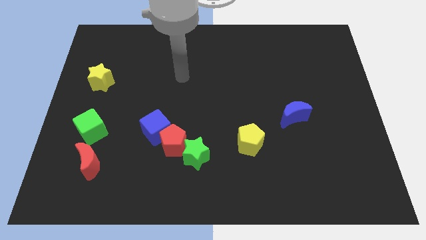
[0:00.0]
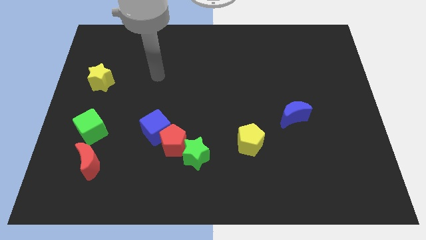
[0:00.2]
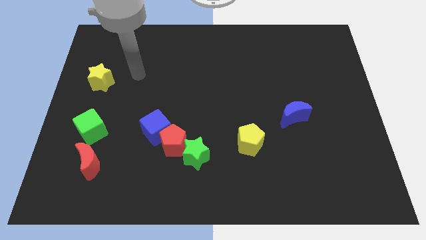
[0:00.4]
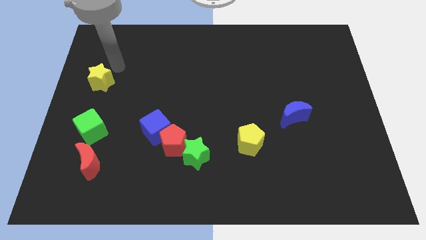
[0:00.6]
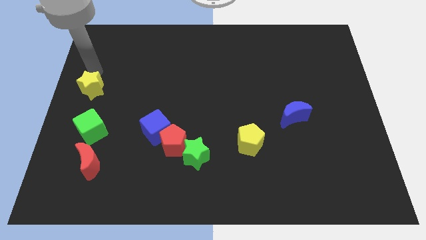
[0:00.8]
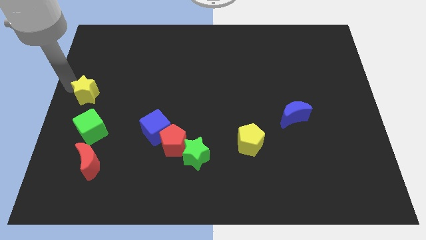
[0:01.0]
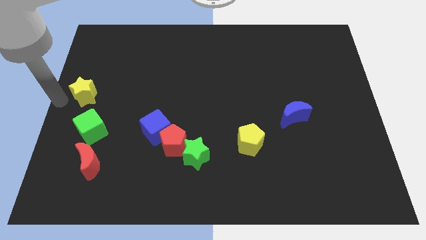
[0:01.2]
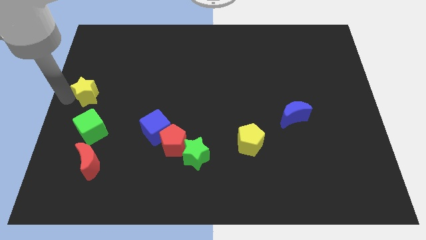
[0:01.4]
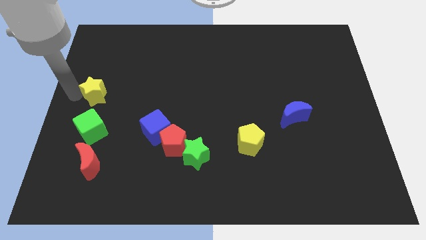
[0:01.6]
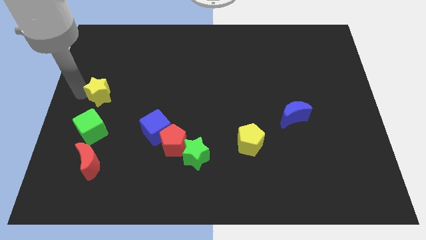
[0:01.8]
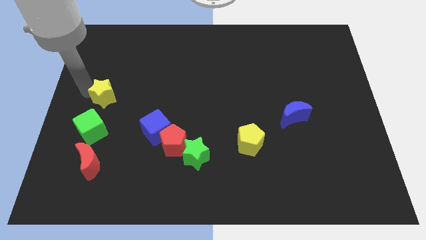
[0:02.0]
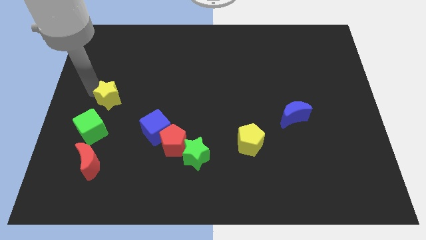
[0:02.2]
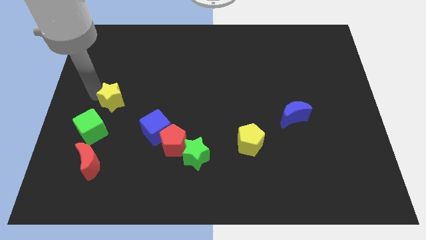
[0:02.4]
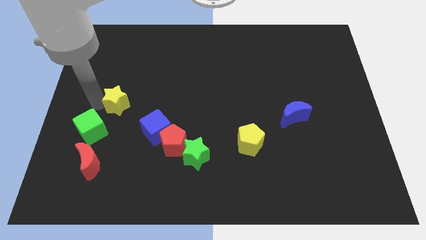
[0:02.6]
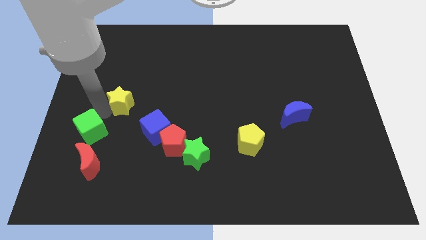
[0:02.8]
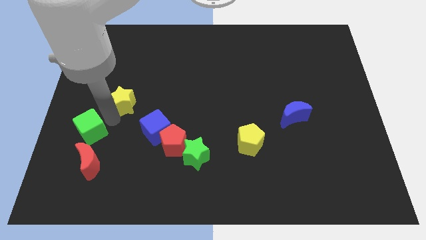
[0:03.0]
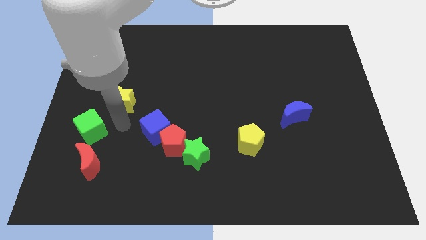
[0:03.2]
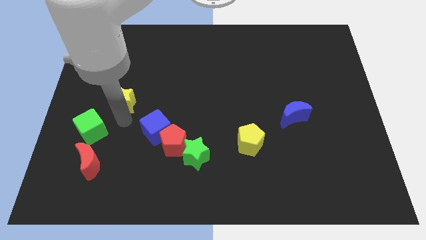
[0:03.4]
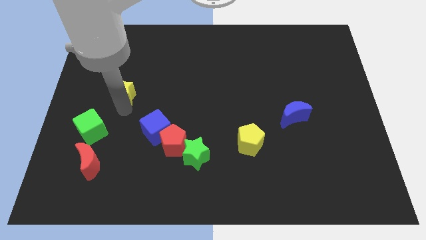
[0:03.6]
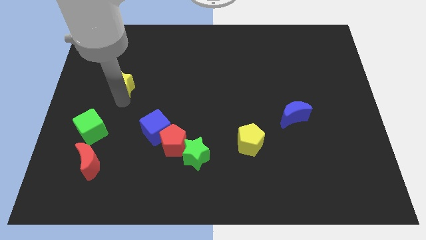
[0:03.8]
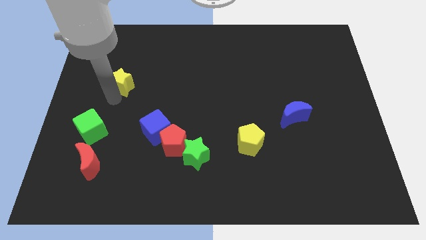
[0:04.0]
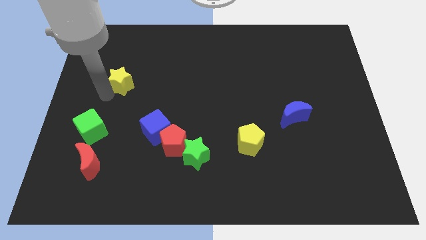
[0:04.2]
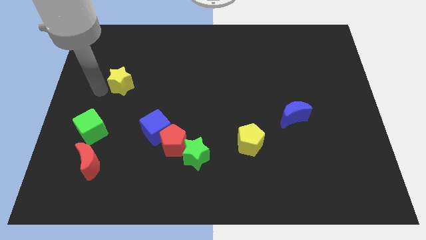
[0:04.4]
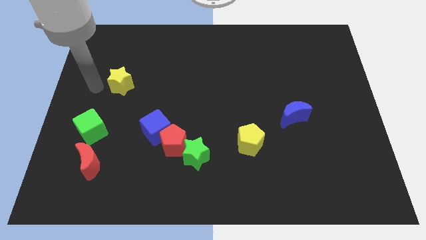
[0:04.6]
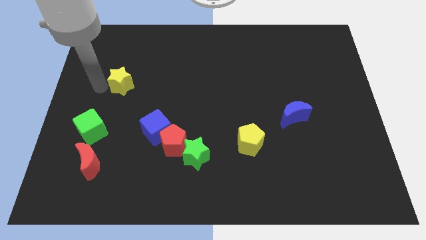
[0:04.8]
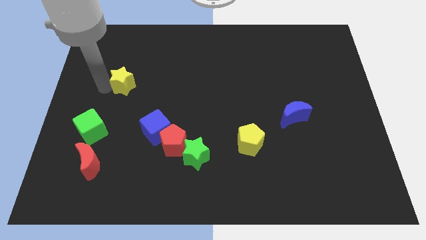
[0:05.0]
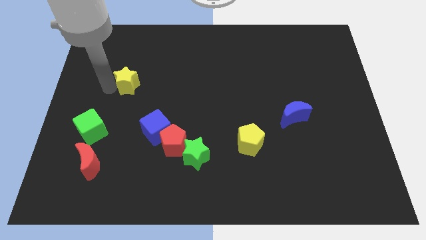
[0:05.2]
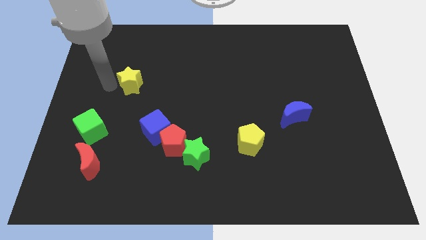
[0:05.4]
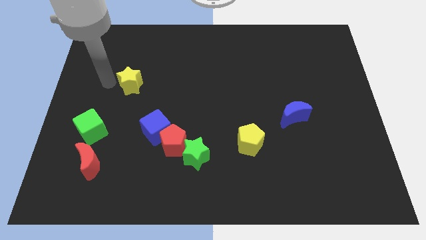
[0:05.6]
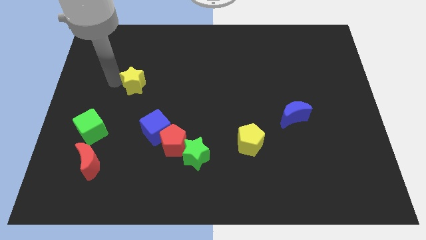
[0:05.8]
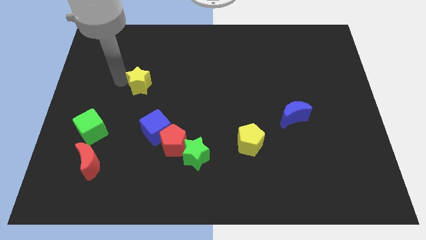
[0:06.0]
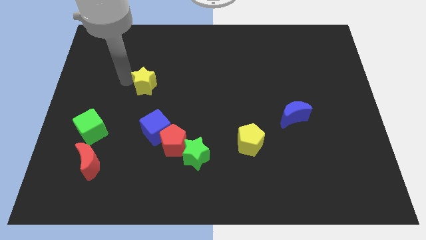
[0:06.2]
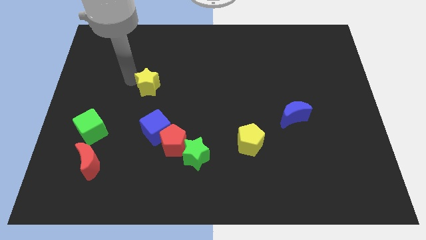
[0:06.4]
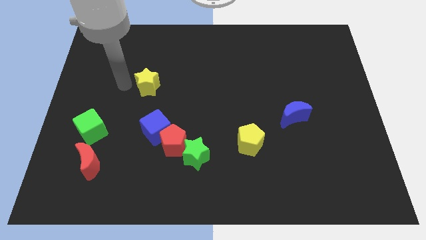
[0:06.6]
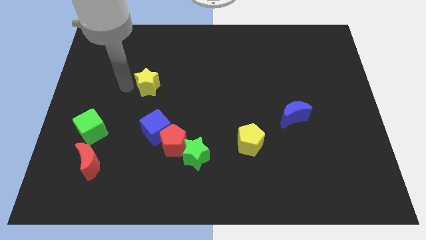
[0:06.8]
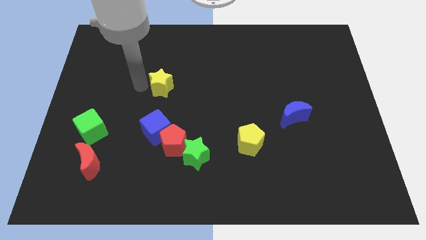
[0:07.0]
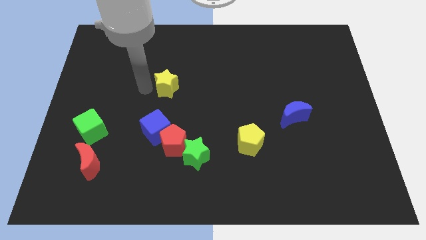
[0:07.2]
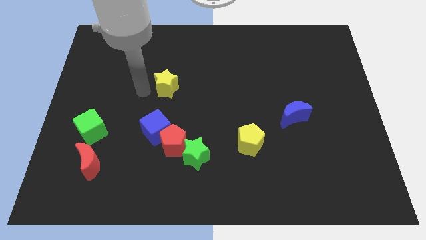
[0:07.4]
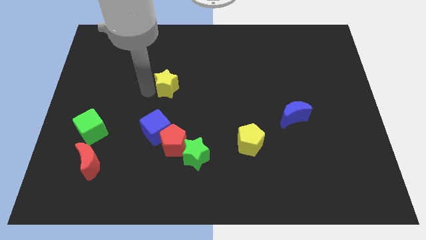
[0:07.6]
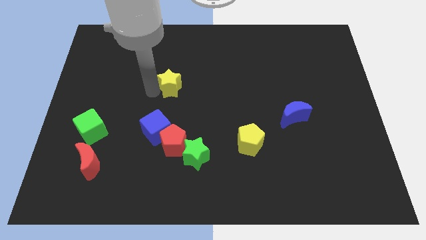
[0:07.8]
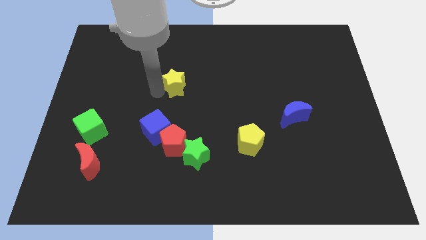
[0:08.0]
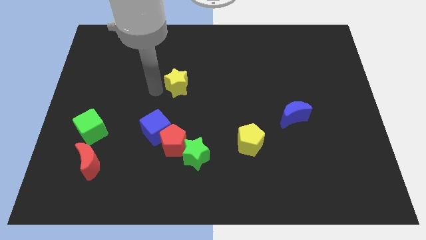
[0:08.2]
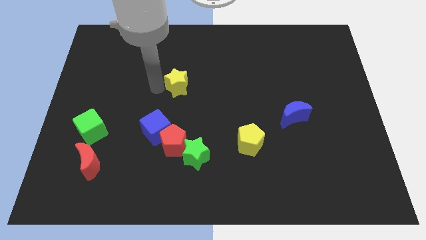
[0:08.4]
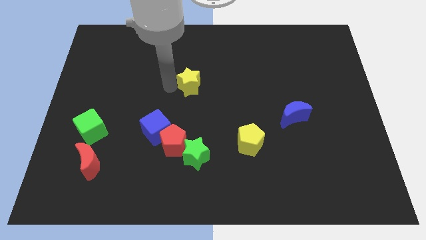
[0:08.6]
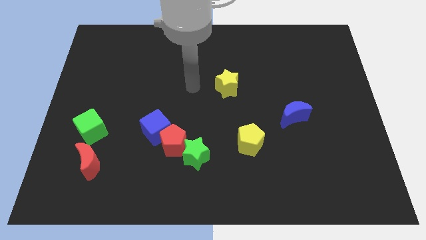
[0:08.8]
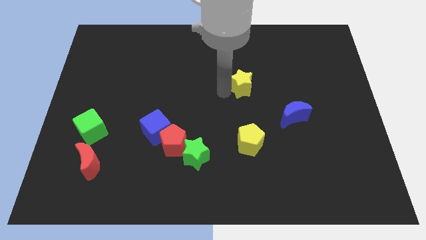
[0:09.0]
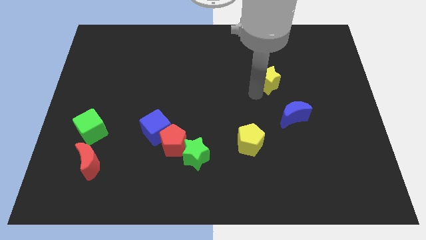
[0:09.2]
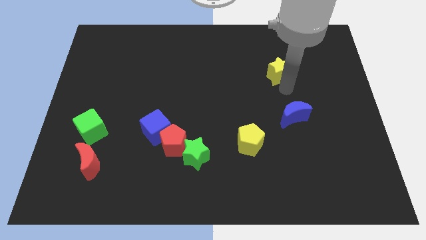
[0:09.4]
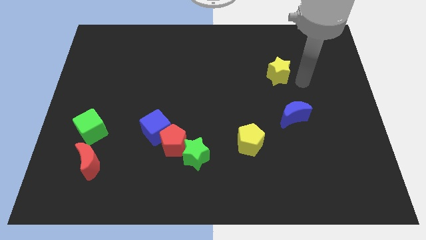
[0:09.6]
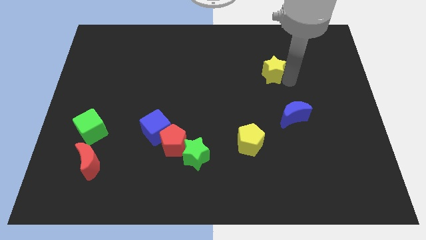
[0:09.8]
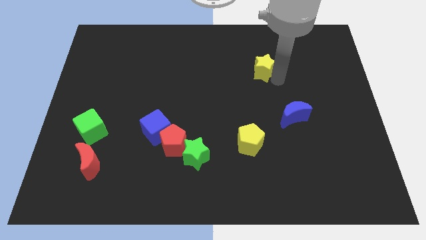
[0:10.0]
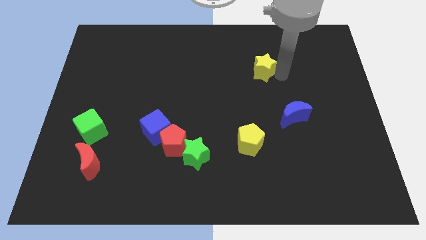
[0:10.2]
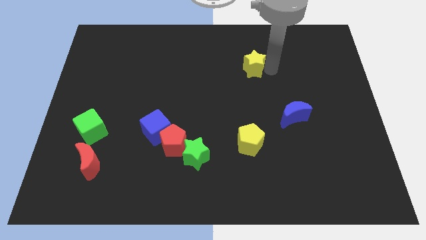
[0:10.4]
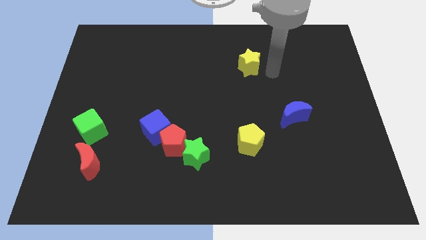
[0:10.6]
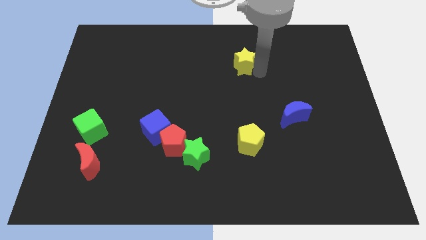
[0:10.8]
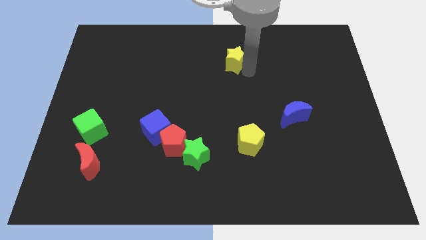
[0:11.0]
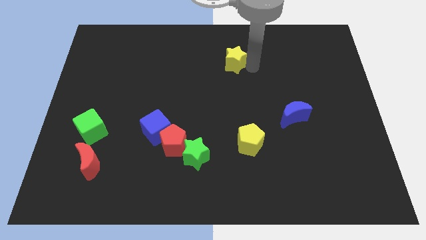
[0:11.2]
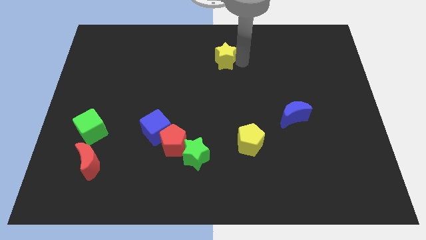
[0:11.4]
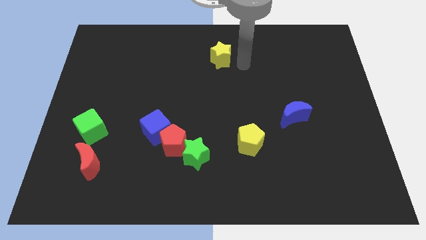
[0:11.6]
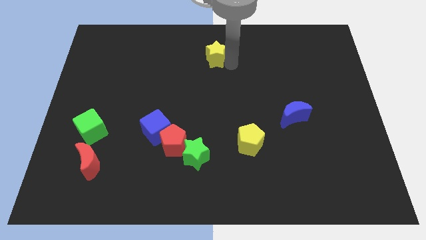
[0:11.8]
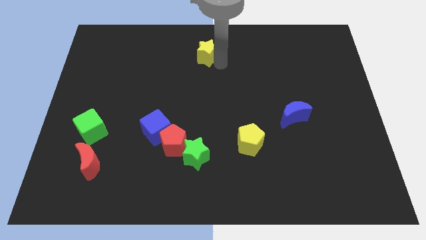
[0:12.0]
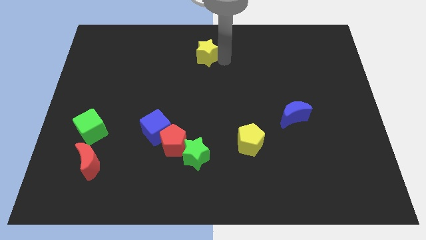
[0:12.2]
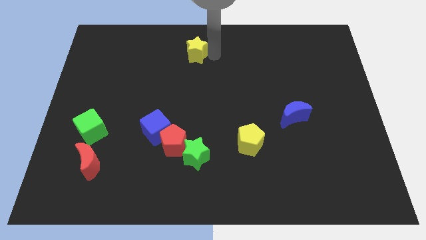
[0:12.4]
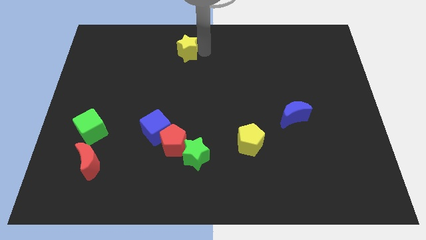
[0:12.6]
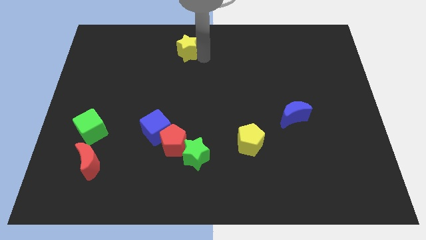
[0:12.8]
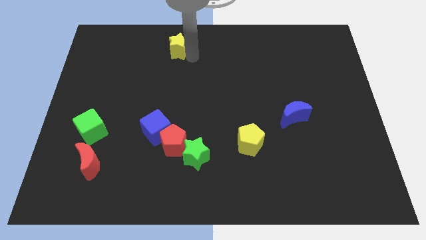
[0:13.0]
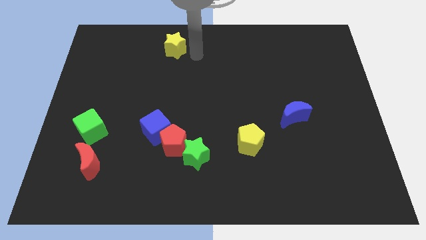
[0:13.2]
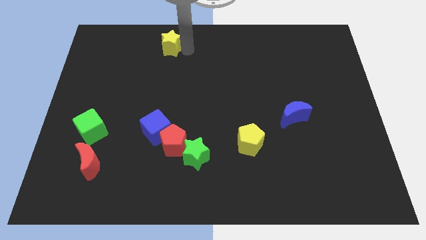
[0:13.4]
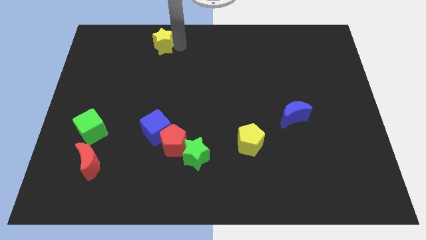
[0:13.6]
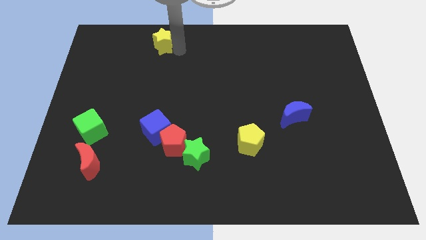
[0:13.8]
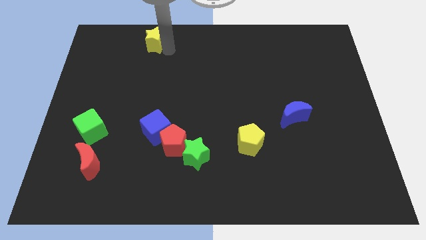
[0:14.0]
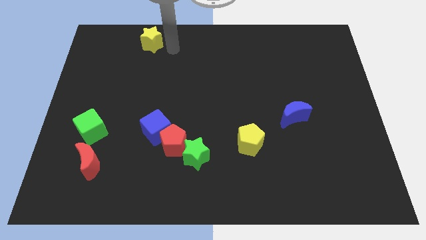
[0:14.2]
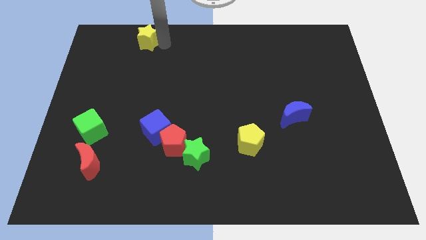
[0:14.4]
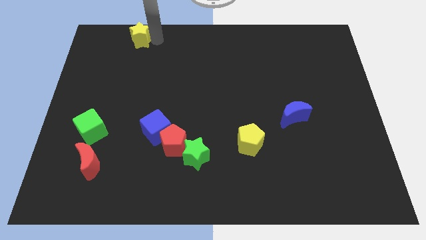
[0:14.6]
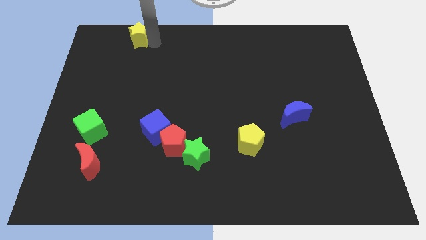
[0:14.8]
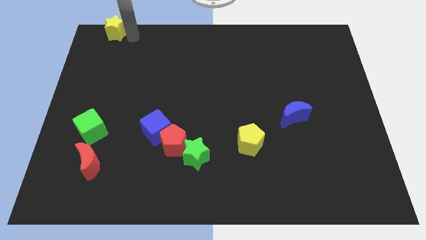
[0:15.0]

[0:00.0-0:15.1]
move the yellow star to the upper left corner
